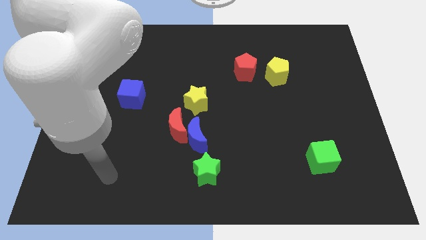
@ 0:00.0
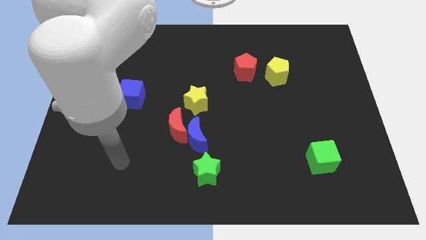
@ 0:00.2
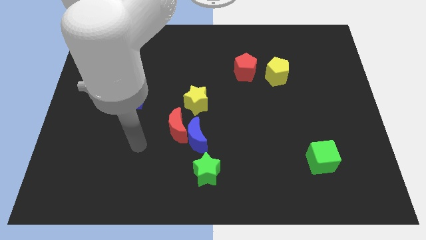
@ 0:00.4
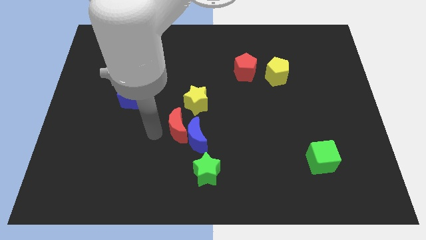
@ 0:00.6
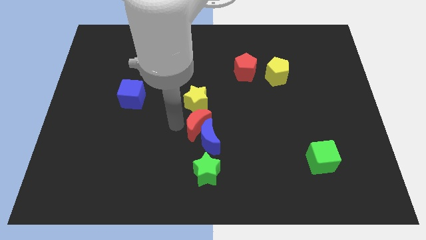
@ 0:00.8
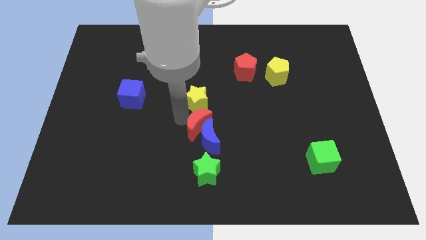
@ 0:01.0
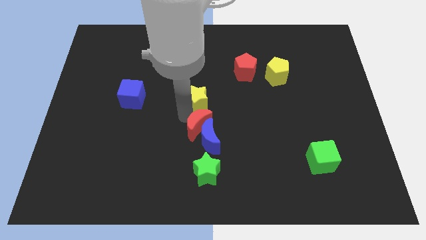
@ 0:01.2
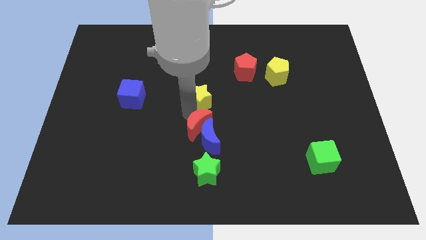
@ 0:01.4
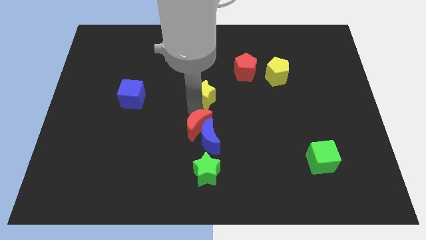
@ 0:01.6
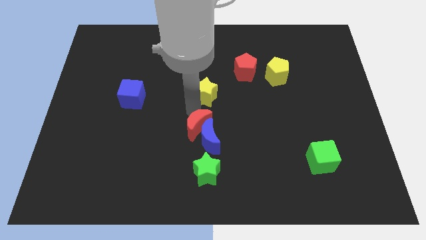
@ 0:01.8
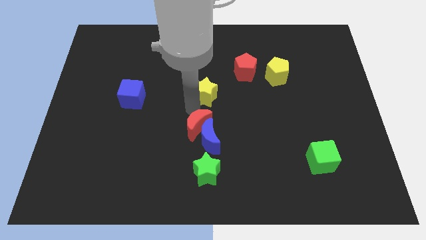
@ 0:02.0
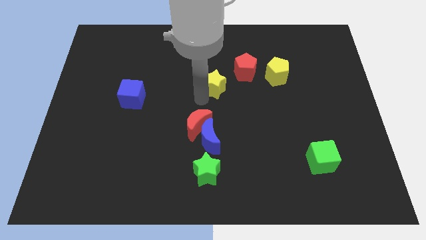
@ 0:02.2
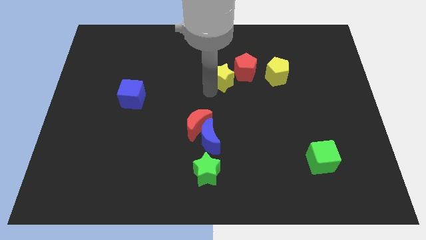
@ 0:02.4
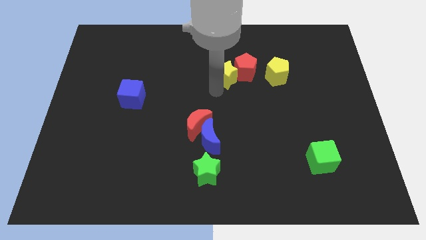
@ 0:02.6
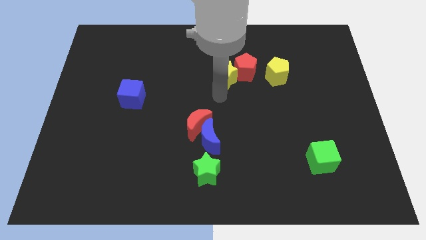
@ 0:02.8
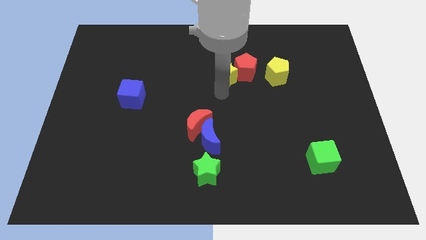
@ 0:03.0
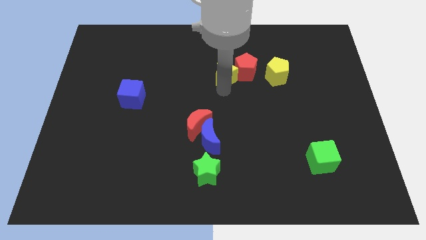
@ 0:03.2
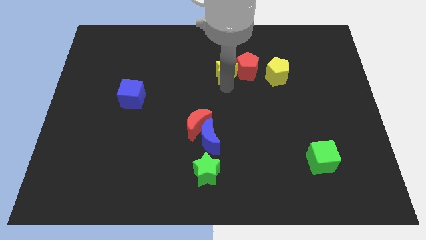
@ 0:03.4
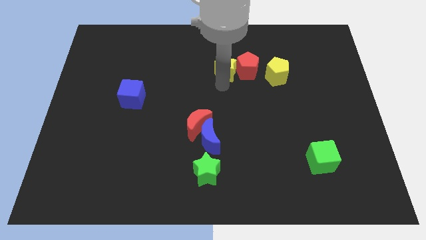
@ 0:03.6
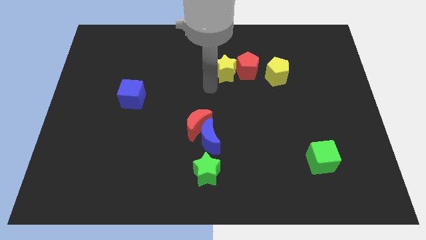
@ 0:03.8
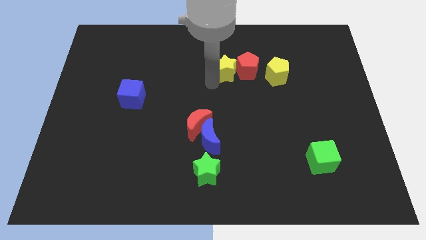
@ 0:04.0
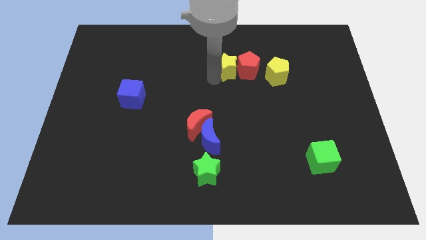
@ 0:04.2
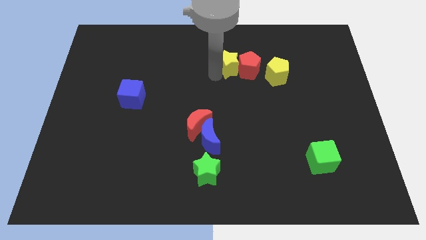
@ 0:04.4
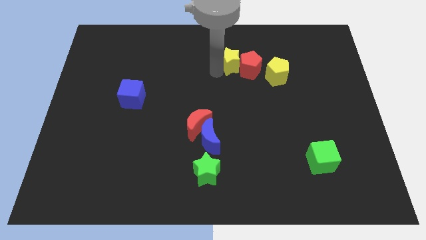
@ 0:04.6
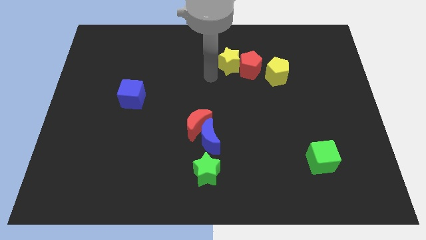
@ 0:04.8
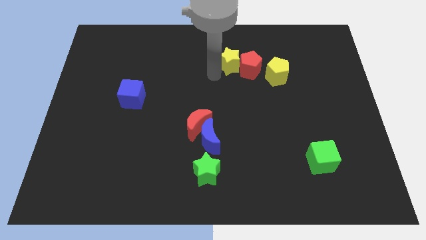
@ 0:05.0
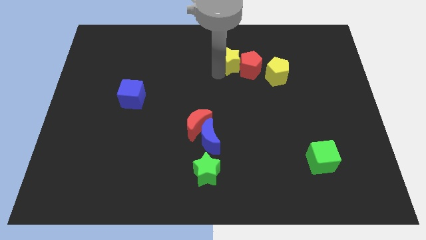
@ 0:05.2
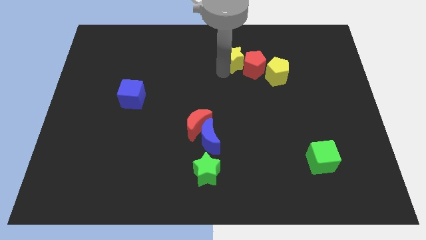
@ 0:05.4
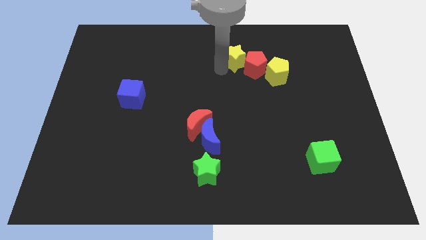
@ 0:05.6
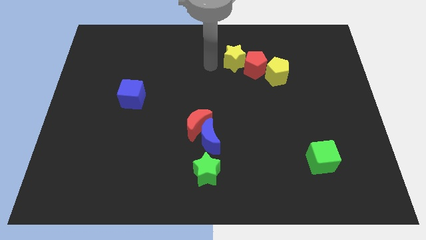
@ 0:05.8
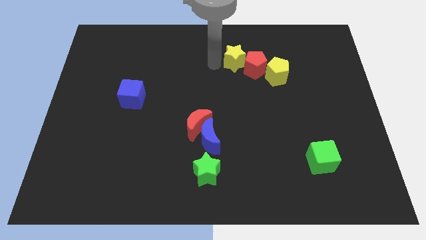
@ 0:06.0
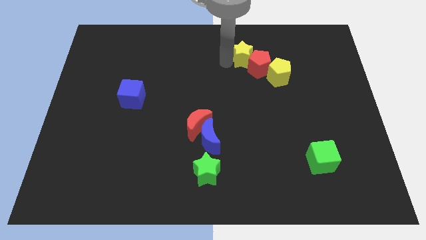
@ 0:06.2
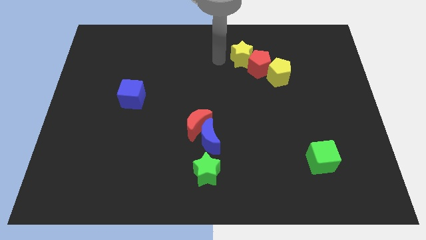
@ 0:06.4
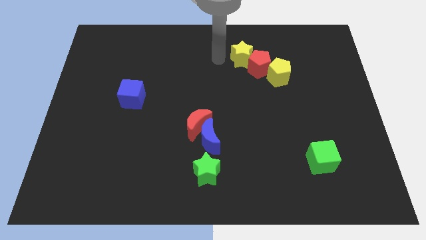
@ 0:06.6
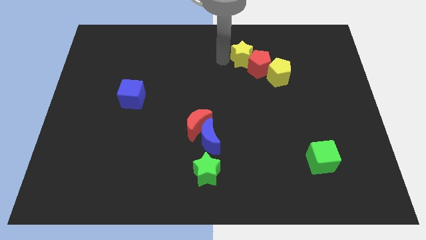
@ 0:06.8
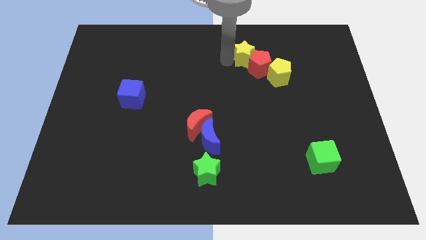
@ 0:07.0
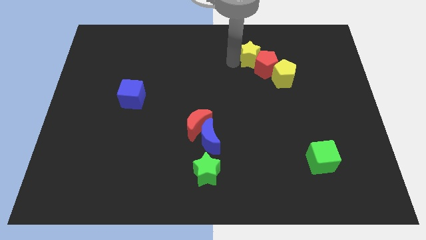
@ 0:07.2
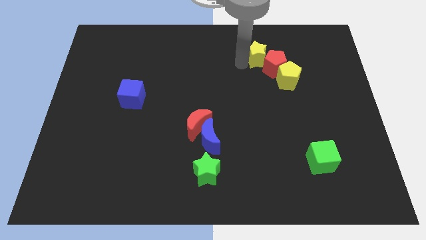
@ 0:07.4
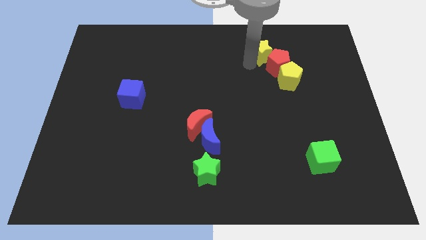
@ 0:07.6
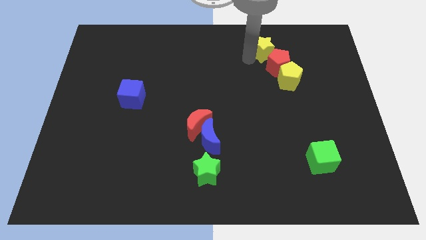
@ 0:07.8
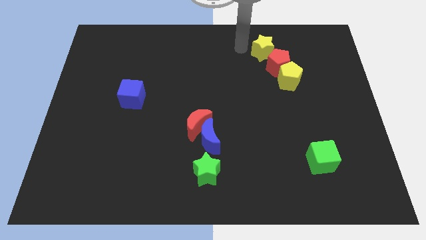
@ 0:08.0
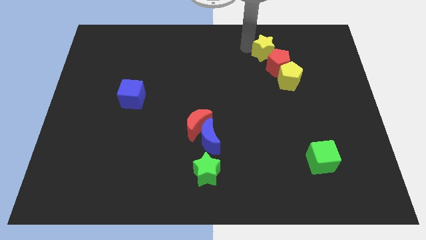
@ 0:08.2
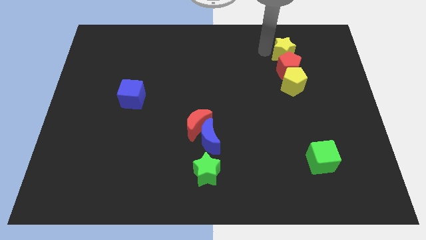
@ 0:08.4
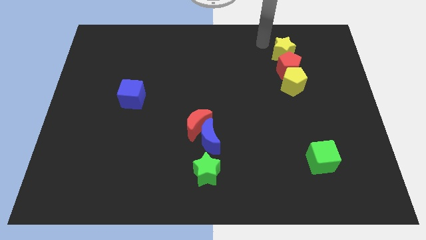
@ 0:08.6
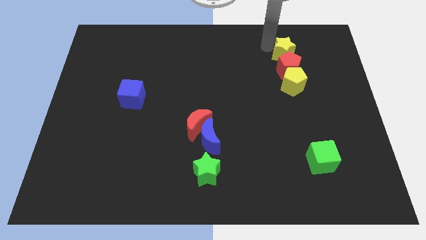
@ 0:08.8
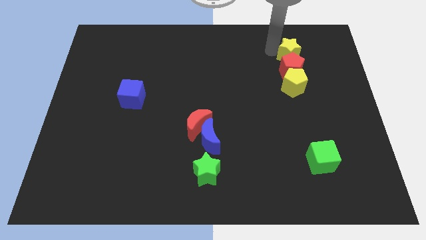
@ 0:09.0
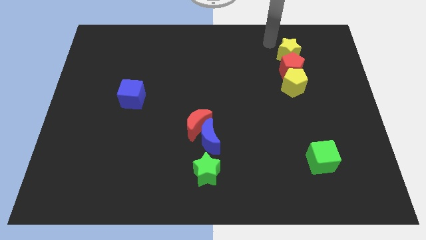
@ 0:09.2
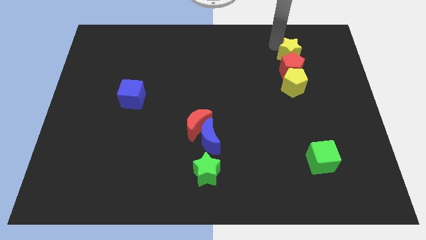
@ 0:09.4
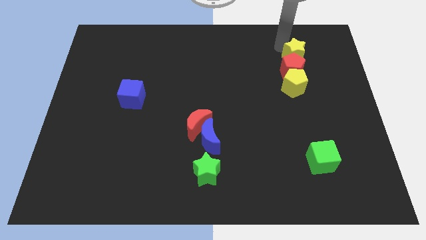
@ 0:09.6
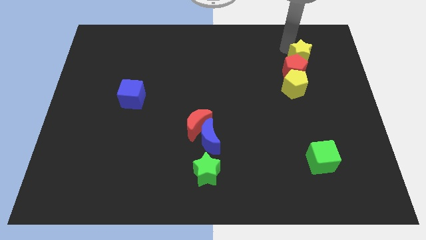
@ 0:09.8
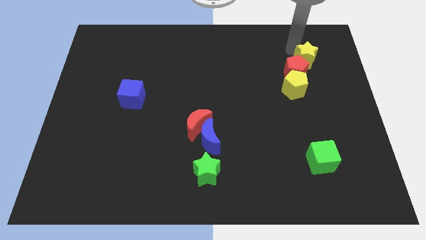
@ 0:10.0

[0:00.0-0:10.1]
push the yellow star to the top right side of the yellow pentagon

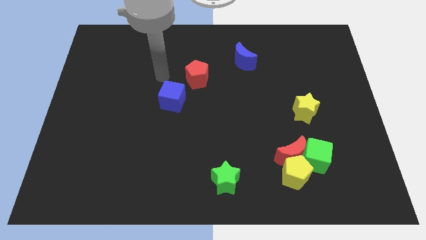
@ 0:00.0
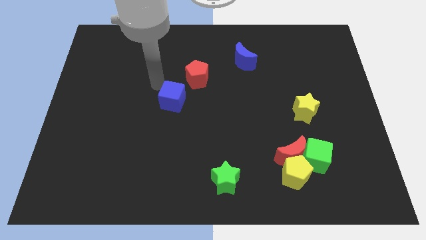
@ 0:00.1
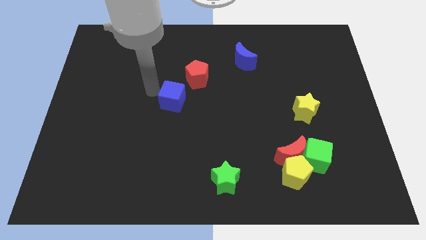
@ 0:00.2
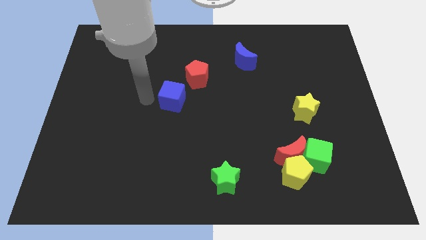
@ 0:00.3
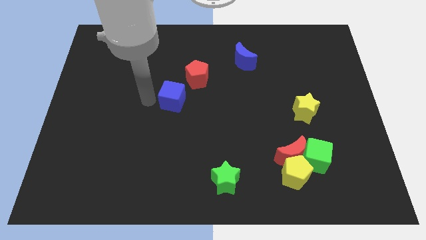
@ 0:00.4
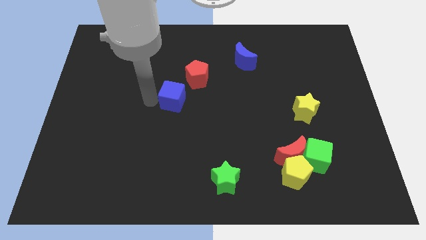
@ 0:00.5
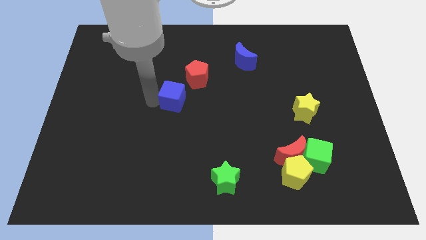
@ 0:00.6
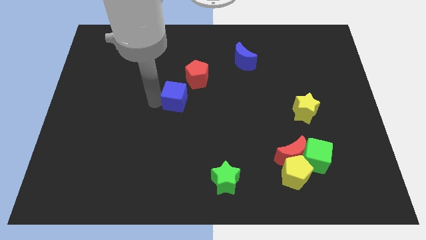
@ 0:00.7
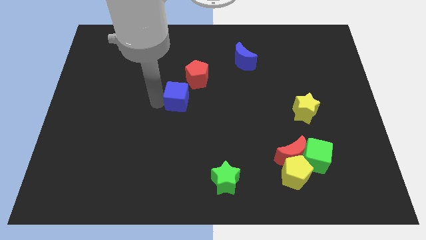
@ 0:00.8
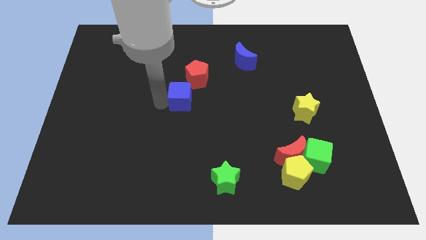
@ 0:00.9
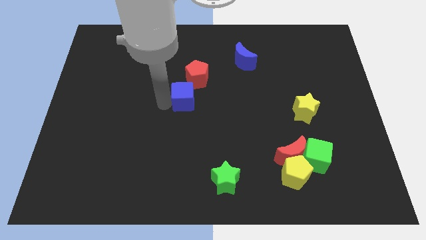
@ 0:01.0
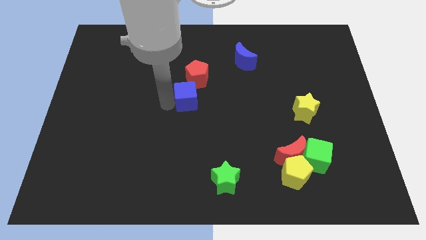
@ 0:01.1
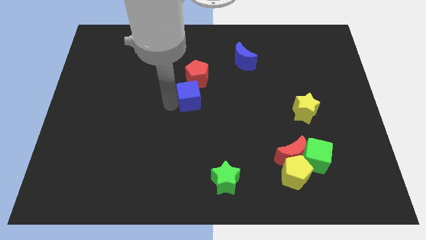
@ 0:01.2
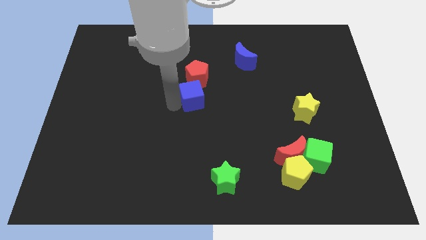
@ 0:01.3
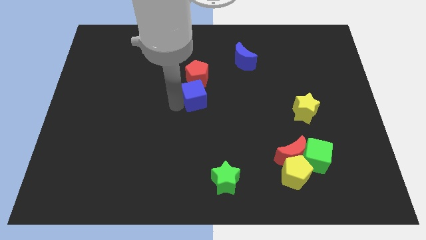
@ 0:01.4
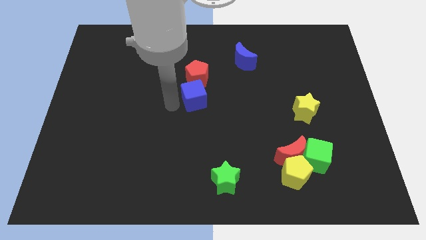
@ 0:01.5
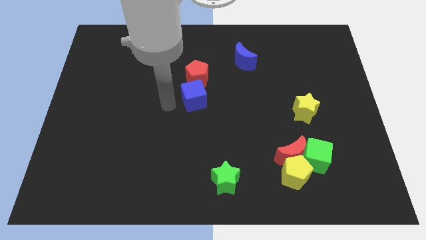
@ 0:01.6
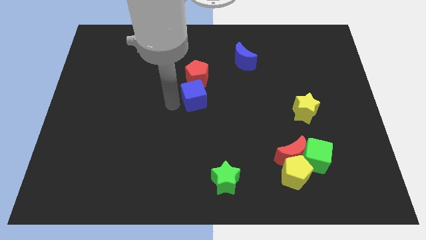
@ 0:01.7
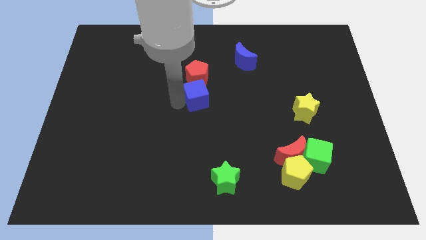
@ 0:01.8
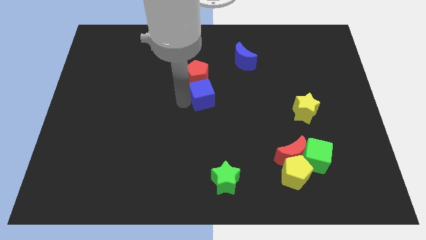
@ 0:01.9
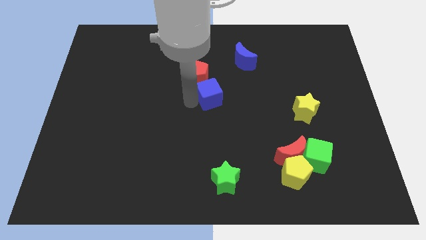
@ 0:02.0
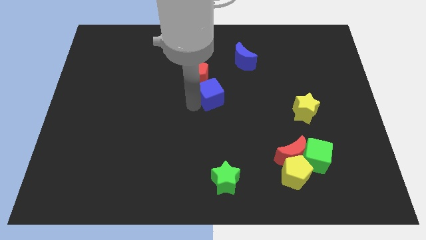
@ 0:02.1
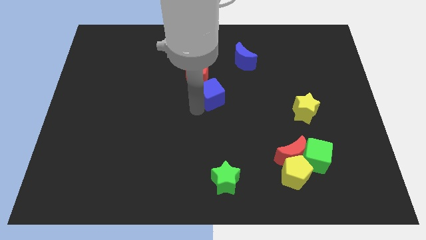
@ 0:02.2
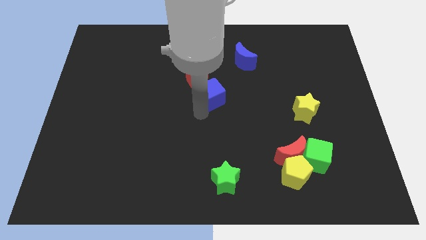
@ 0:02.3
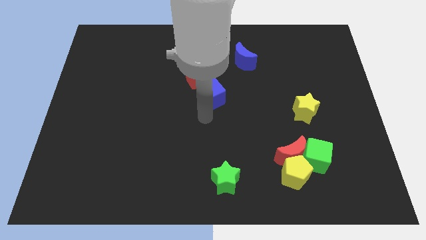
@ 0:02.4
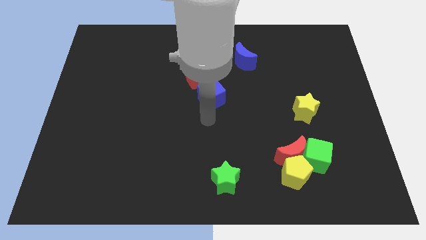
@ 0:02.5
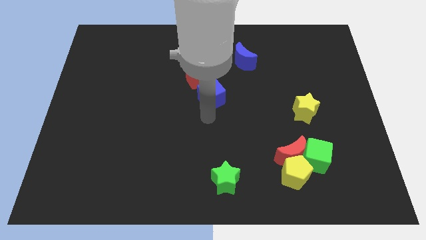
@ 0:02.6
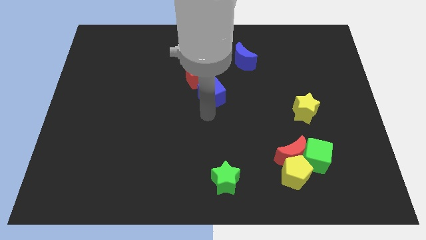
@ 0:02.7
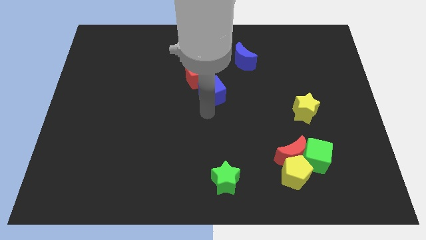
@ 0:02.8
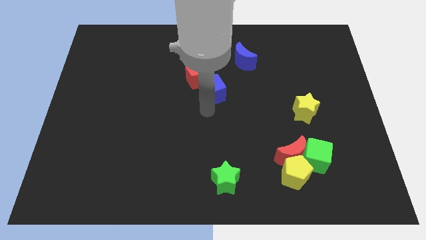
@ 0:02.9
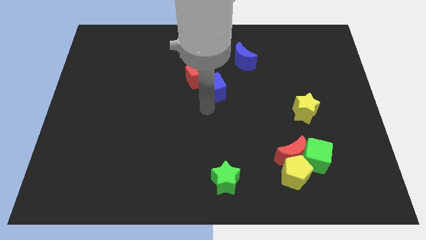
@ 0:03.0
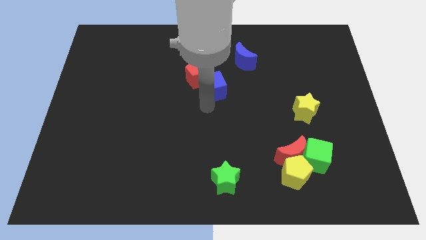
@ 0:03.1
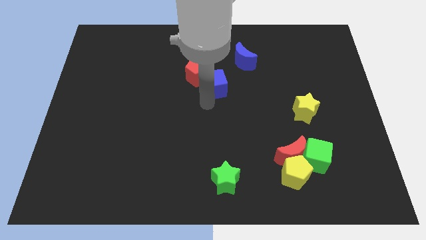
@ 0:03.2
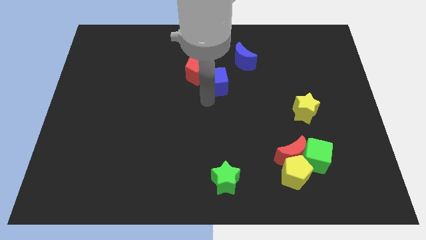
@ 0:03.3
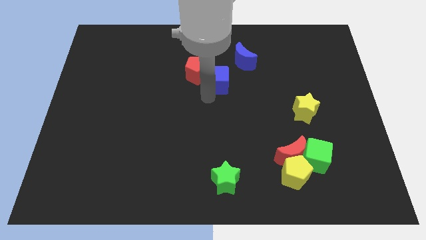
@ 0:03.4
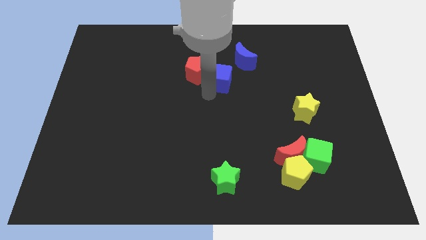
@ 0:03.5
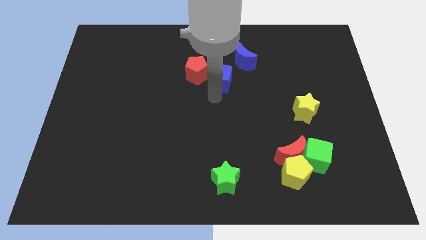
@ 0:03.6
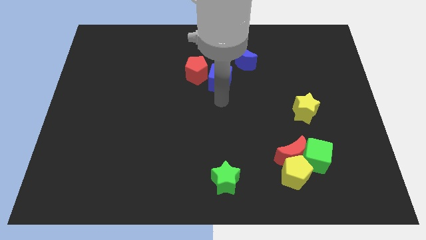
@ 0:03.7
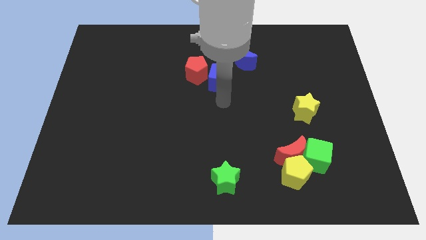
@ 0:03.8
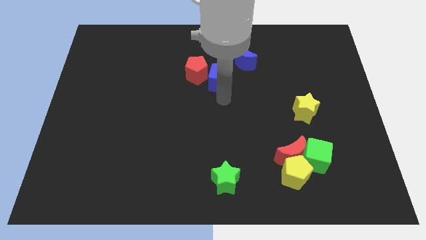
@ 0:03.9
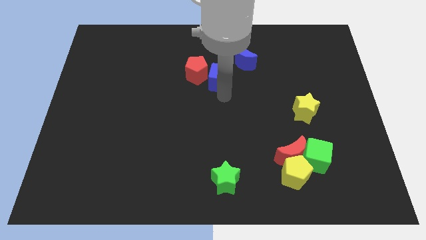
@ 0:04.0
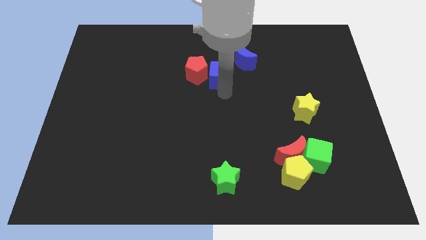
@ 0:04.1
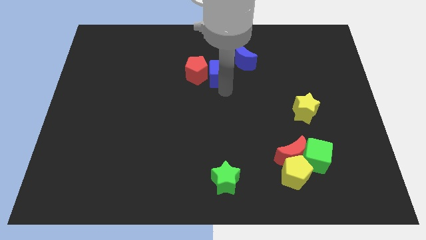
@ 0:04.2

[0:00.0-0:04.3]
push the blue cube to the top right of the red pentagon
